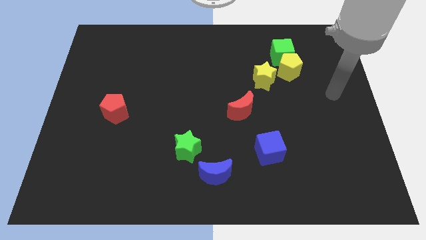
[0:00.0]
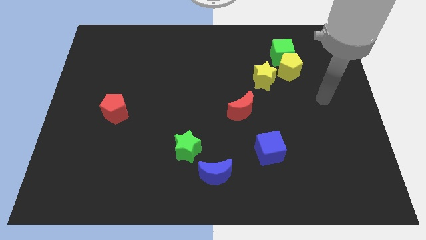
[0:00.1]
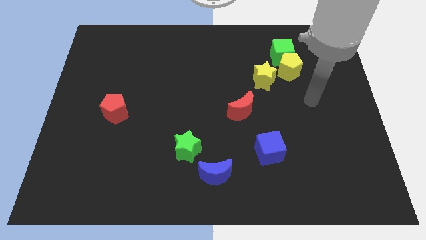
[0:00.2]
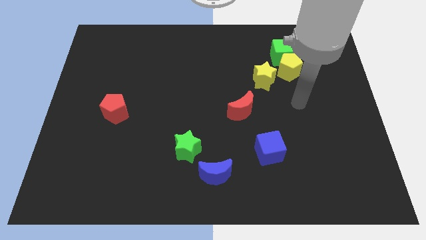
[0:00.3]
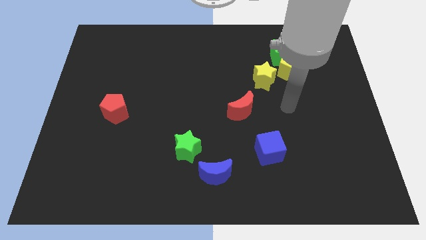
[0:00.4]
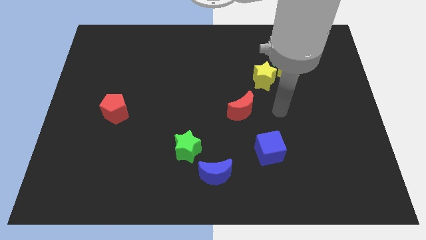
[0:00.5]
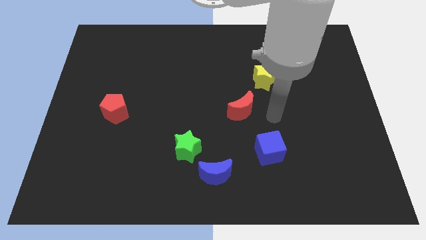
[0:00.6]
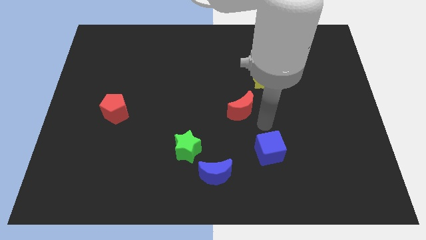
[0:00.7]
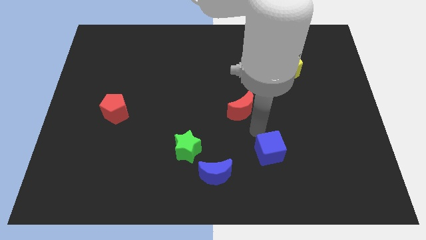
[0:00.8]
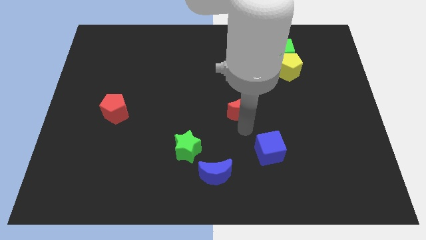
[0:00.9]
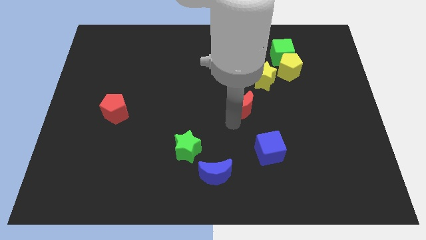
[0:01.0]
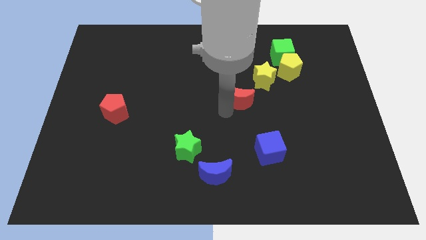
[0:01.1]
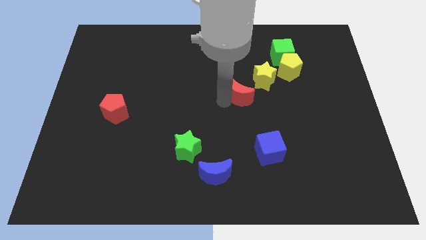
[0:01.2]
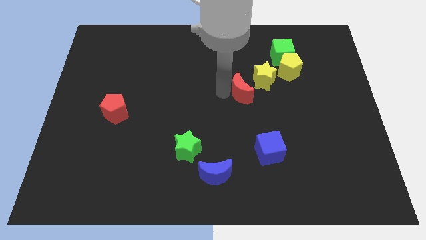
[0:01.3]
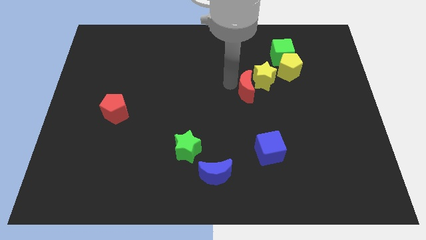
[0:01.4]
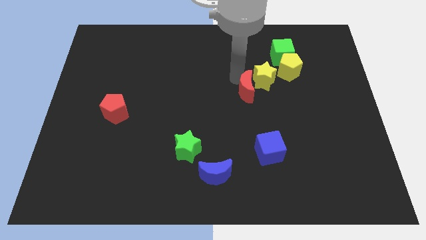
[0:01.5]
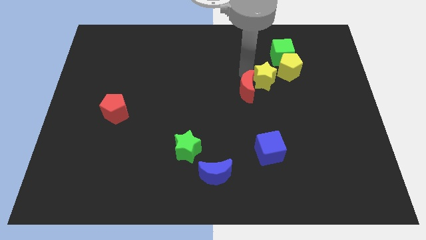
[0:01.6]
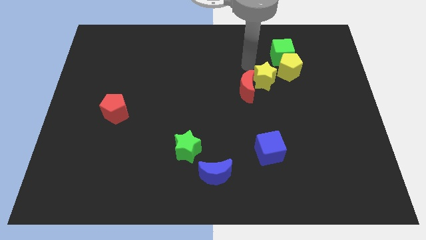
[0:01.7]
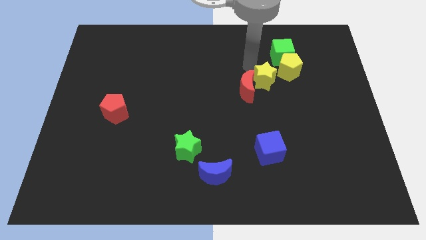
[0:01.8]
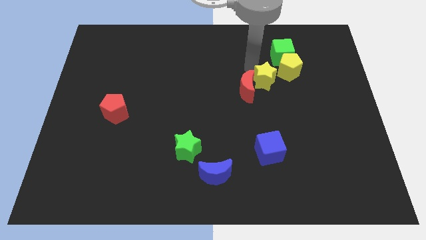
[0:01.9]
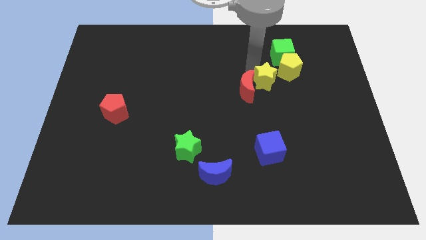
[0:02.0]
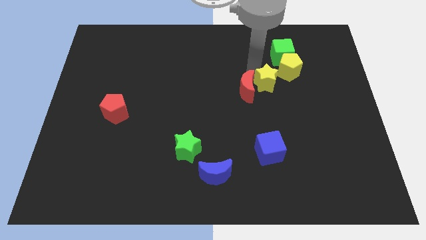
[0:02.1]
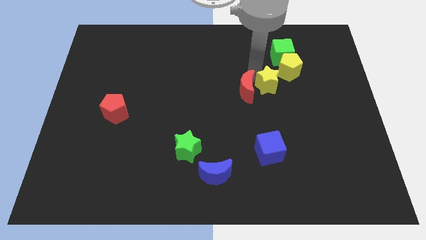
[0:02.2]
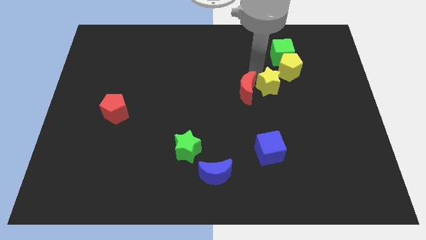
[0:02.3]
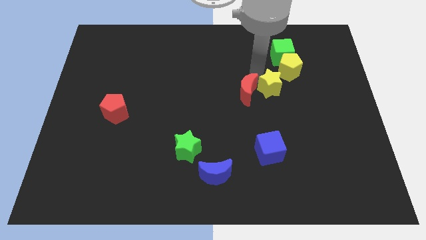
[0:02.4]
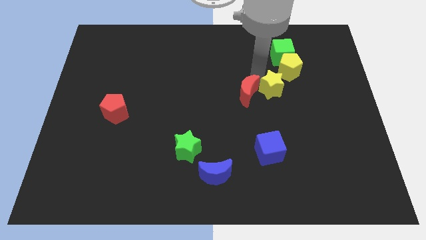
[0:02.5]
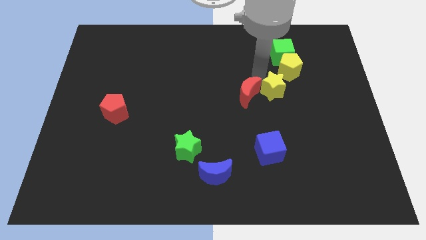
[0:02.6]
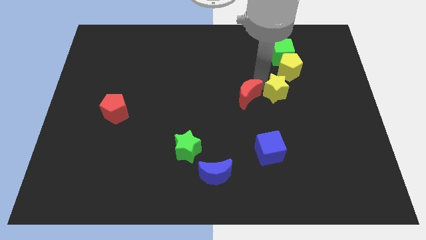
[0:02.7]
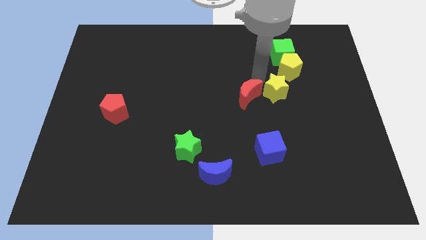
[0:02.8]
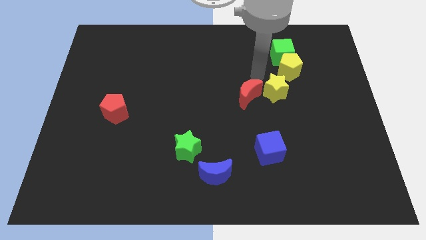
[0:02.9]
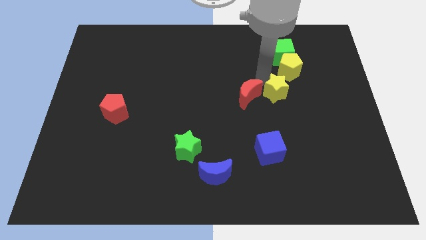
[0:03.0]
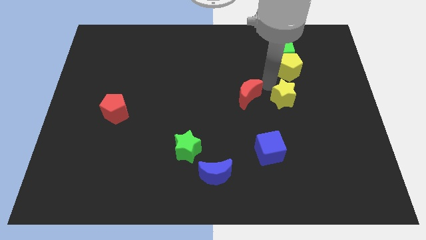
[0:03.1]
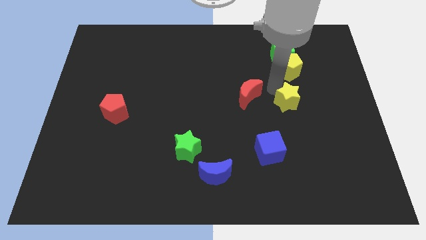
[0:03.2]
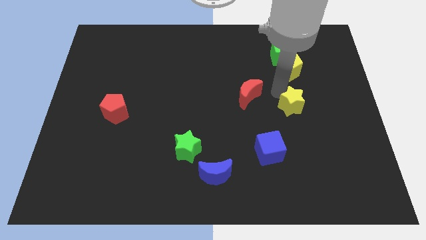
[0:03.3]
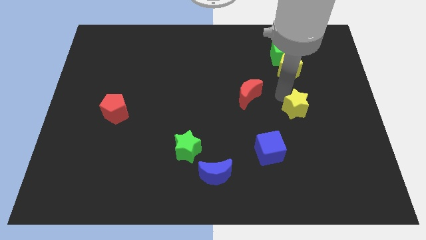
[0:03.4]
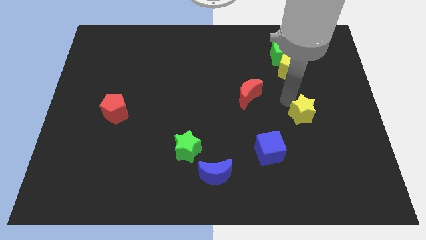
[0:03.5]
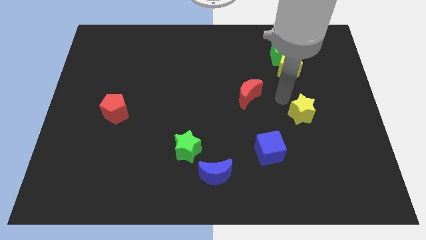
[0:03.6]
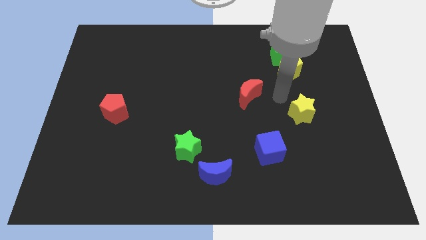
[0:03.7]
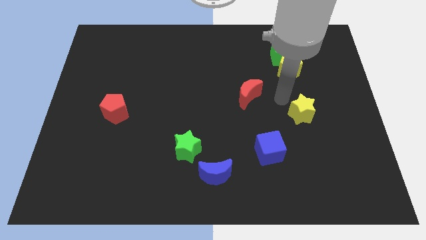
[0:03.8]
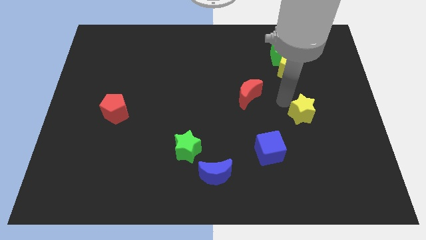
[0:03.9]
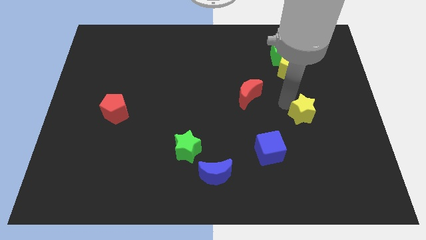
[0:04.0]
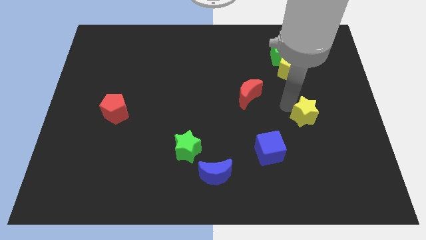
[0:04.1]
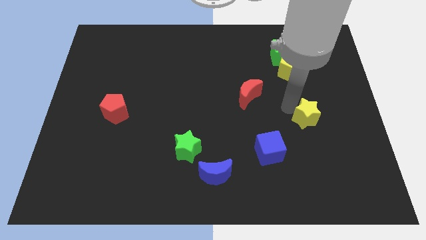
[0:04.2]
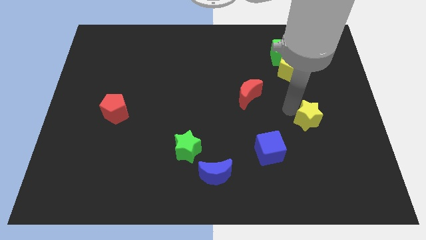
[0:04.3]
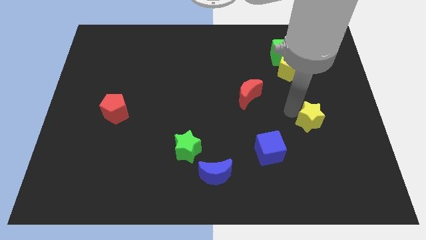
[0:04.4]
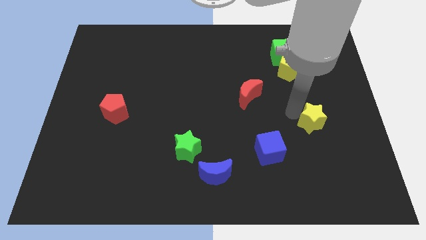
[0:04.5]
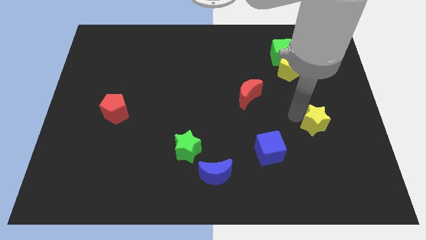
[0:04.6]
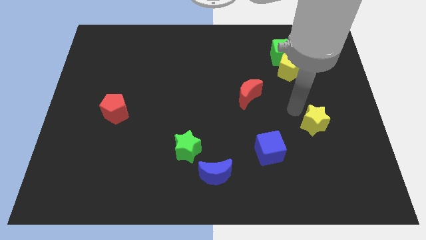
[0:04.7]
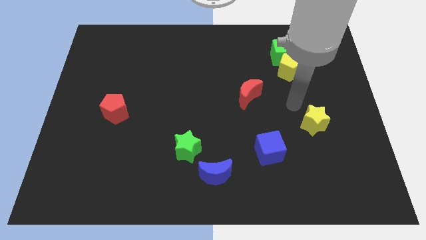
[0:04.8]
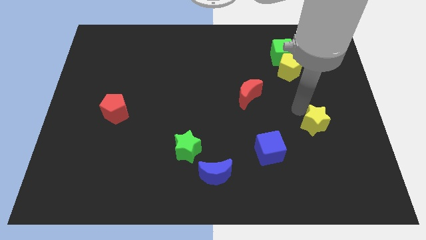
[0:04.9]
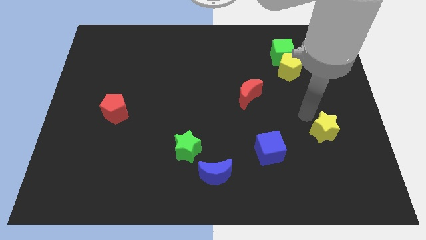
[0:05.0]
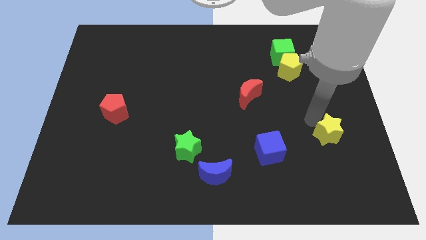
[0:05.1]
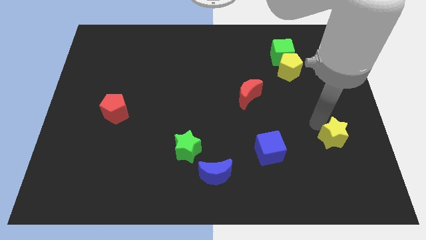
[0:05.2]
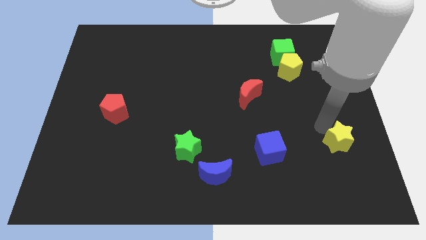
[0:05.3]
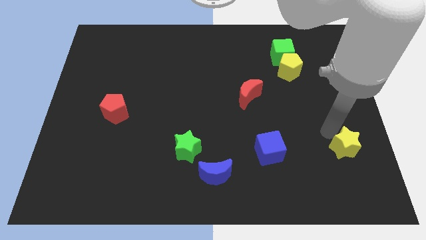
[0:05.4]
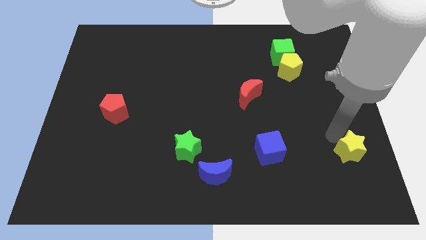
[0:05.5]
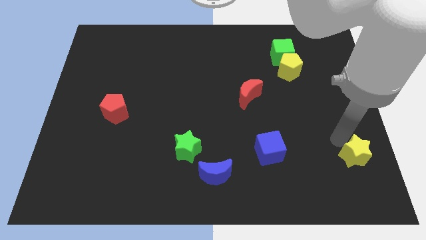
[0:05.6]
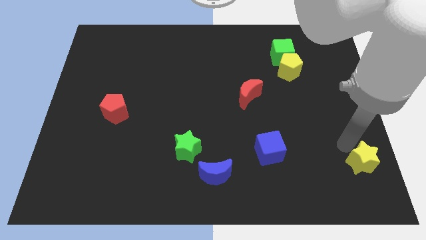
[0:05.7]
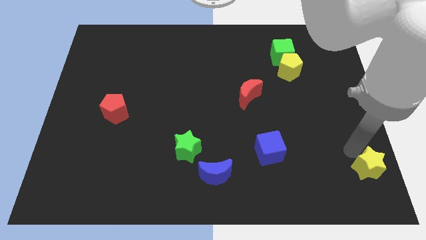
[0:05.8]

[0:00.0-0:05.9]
put the yellow star to the bottom right corner

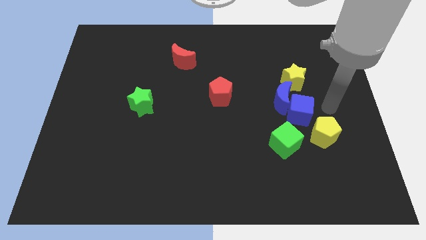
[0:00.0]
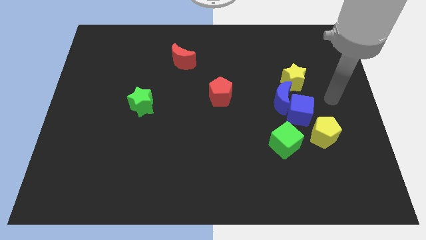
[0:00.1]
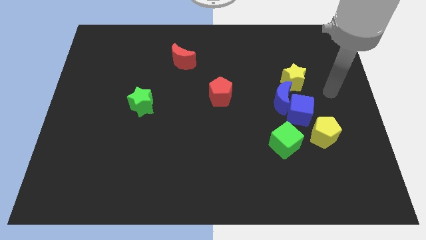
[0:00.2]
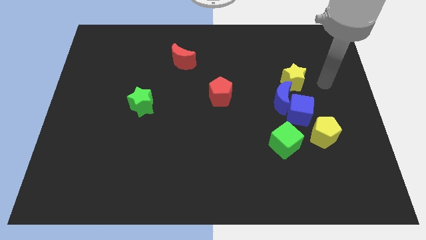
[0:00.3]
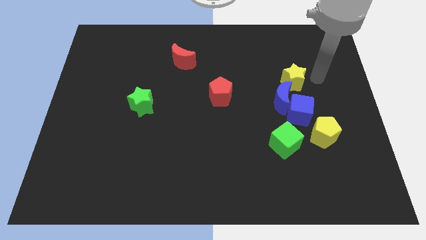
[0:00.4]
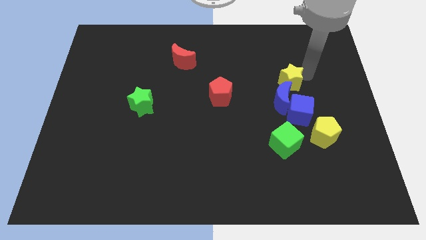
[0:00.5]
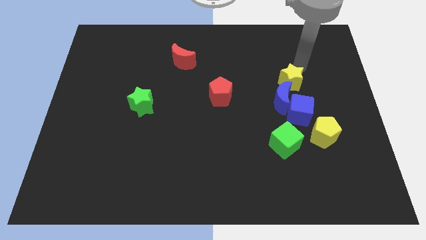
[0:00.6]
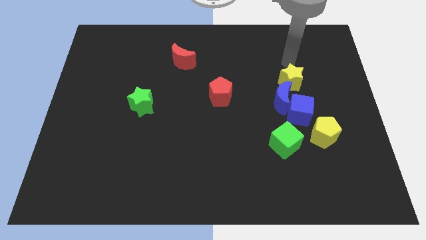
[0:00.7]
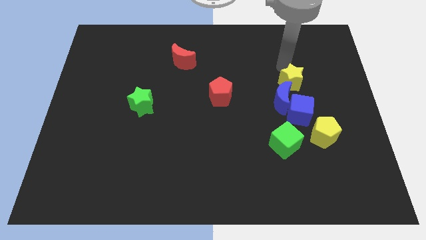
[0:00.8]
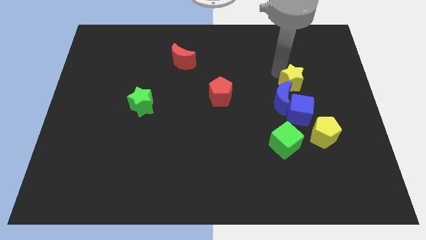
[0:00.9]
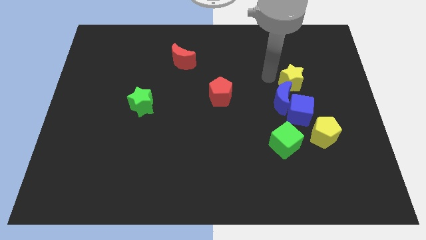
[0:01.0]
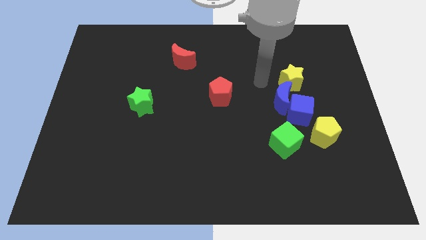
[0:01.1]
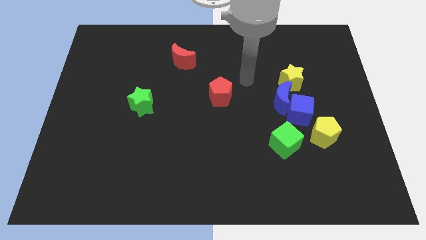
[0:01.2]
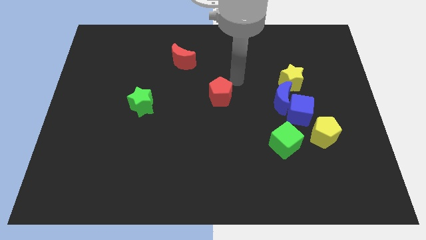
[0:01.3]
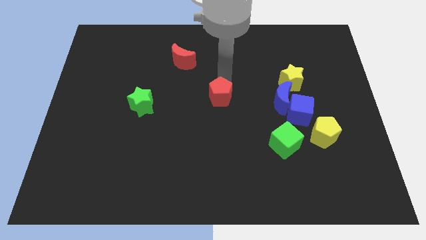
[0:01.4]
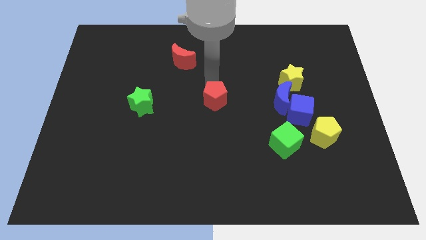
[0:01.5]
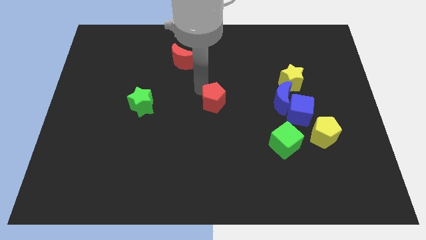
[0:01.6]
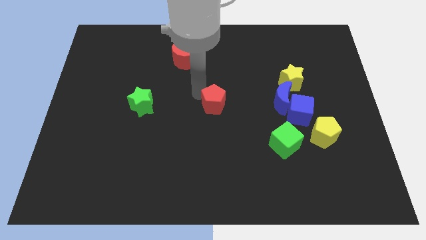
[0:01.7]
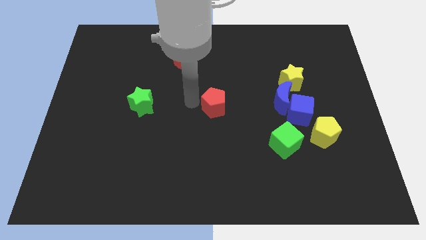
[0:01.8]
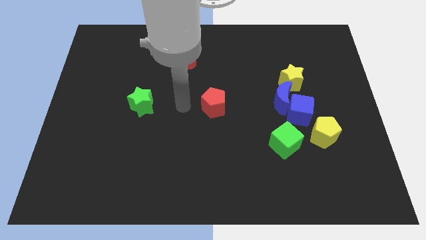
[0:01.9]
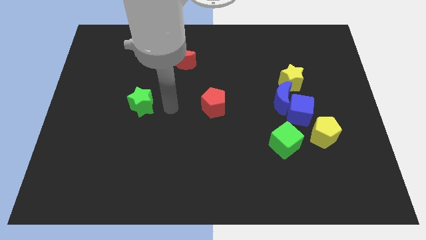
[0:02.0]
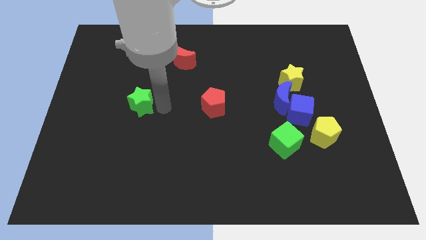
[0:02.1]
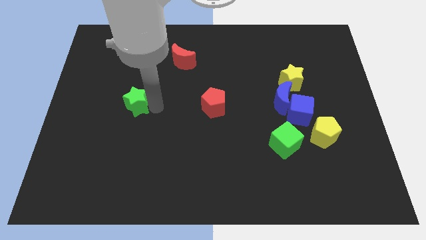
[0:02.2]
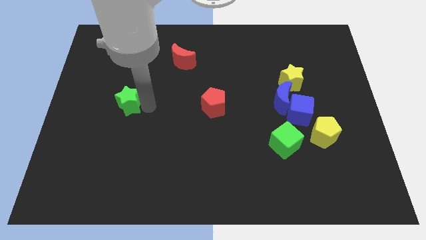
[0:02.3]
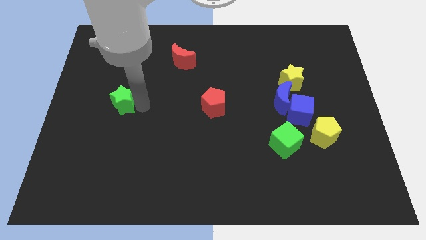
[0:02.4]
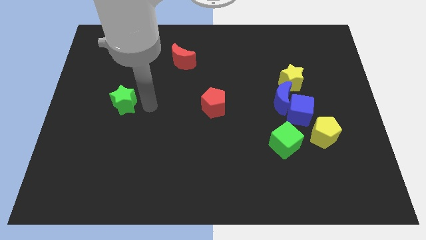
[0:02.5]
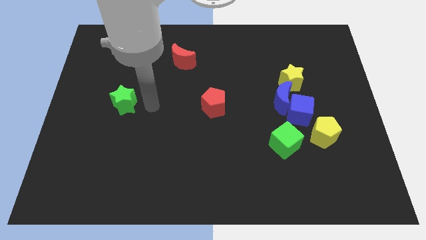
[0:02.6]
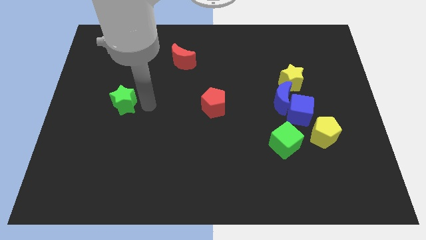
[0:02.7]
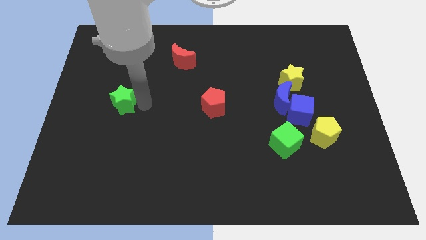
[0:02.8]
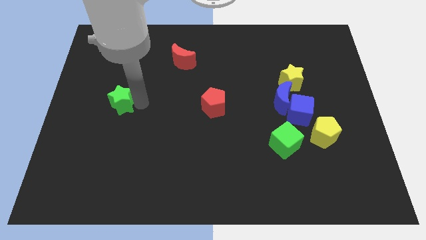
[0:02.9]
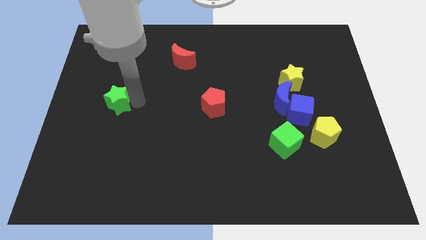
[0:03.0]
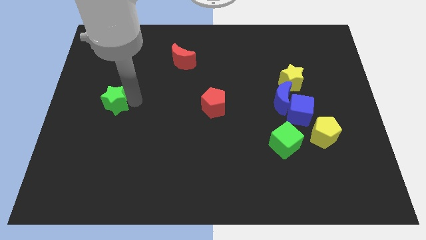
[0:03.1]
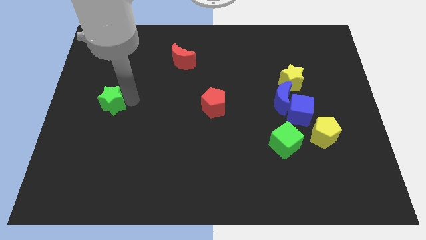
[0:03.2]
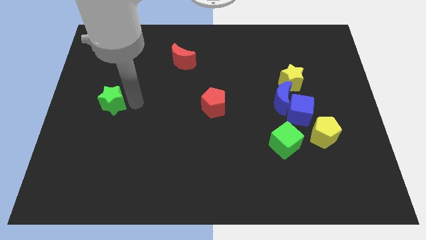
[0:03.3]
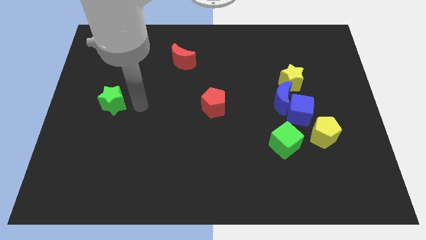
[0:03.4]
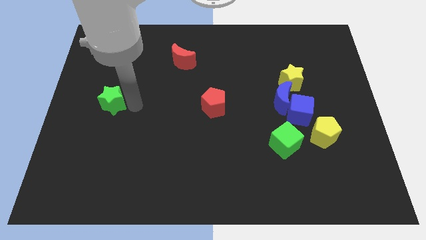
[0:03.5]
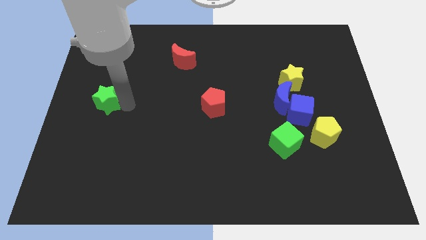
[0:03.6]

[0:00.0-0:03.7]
slide the green star to the left side
